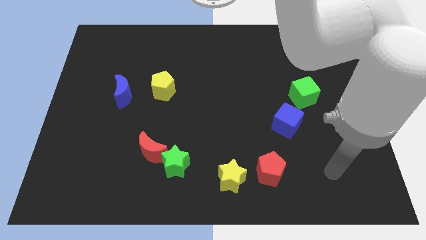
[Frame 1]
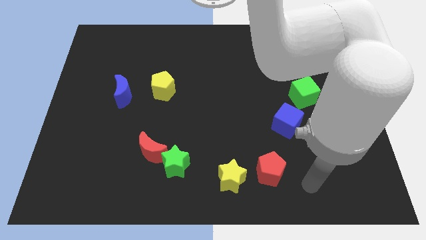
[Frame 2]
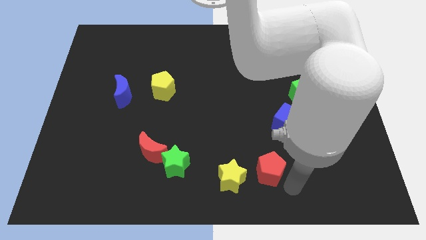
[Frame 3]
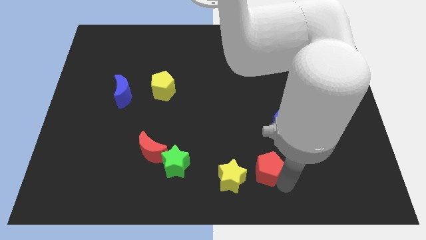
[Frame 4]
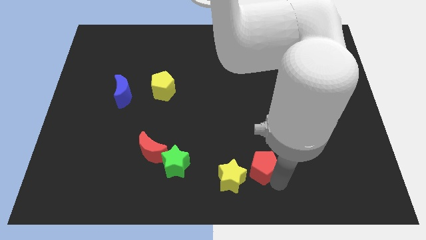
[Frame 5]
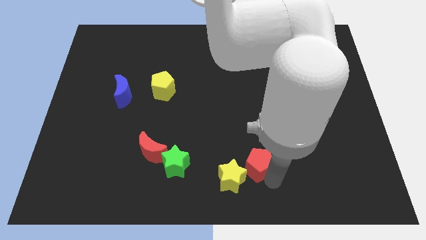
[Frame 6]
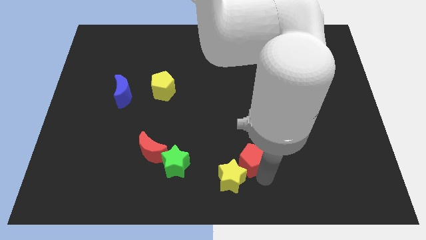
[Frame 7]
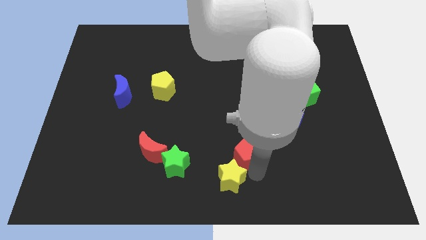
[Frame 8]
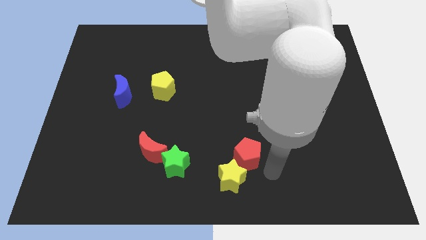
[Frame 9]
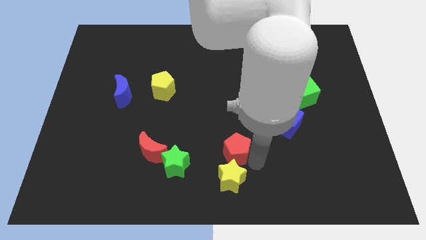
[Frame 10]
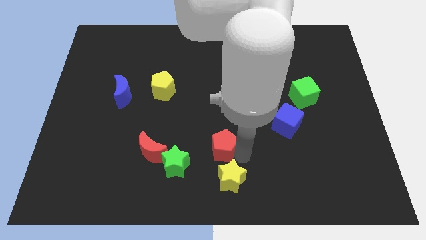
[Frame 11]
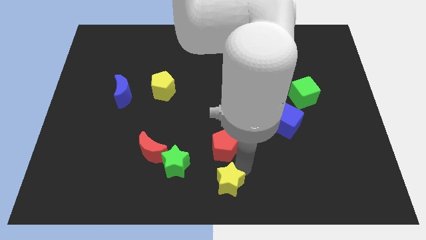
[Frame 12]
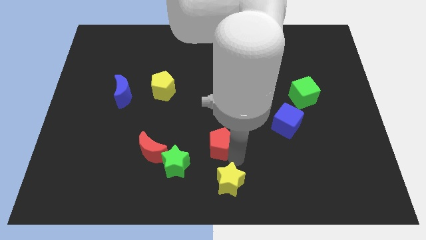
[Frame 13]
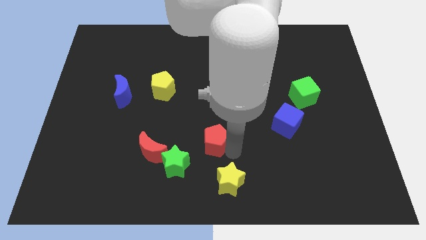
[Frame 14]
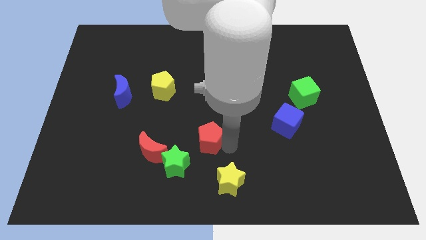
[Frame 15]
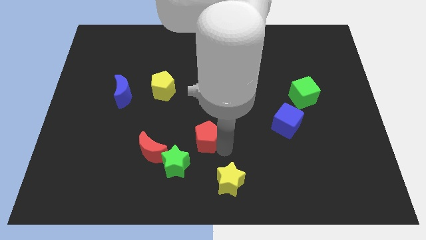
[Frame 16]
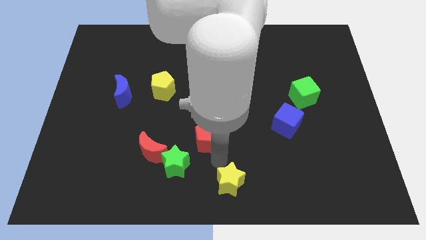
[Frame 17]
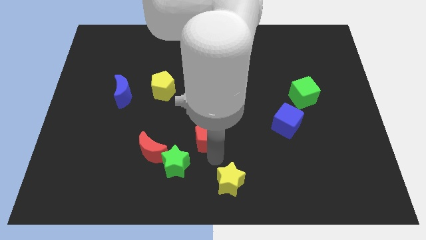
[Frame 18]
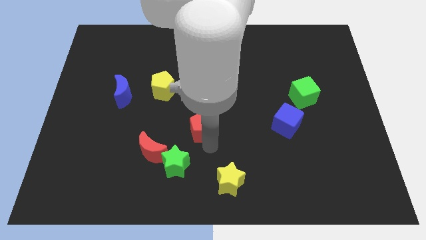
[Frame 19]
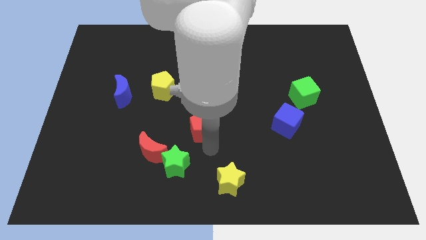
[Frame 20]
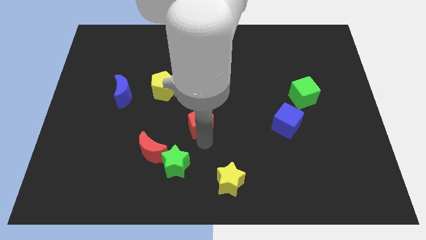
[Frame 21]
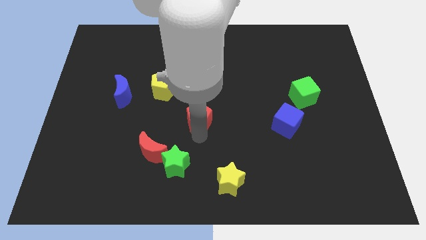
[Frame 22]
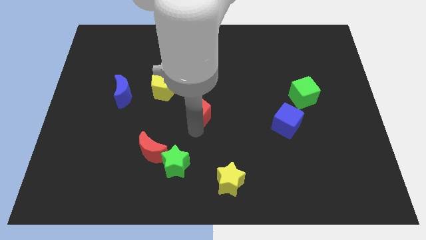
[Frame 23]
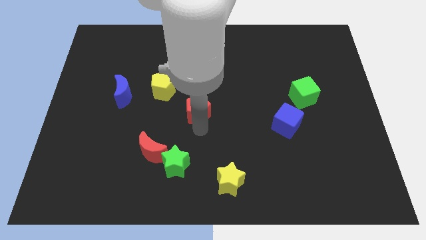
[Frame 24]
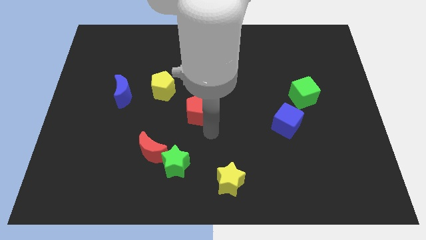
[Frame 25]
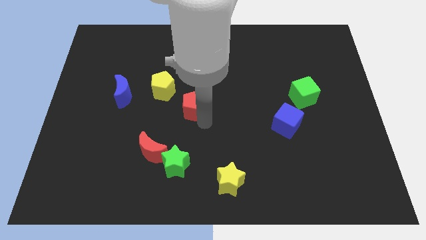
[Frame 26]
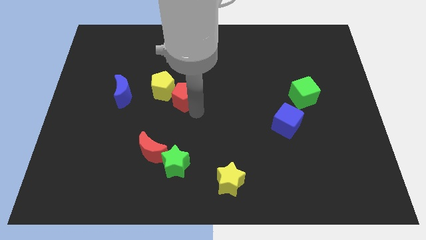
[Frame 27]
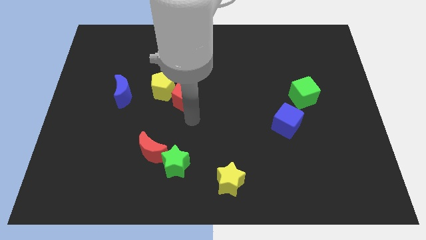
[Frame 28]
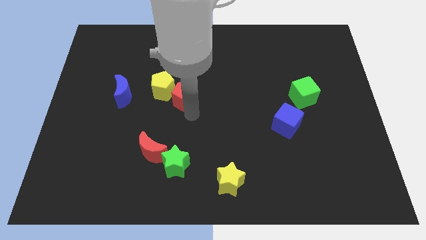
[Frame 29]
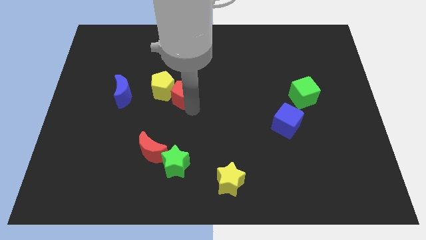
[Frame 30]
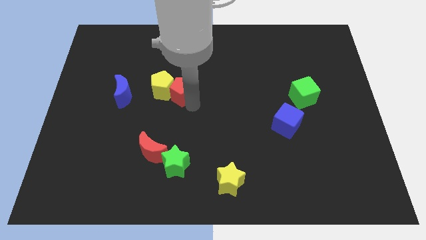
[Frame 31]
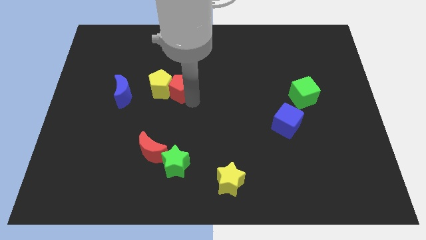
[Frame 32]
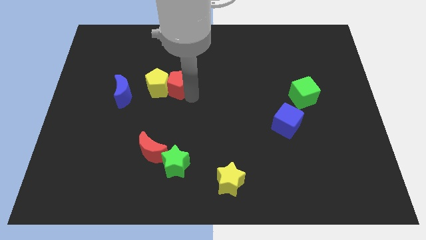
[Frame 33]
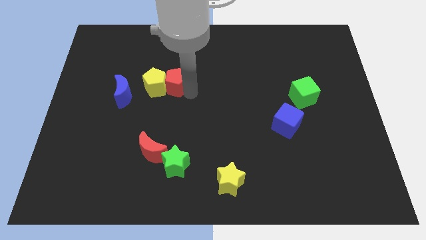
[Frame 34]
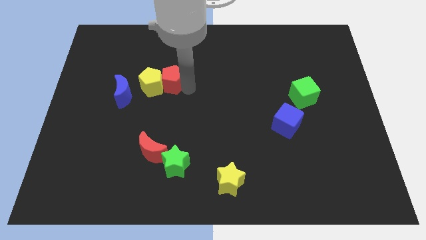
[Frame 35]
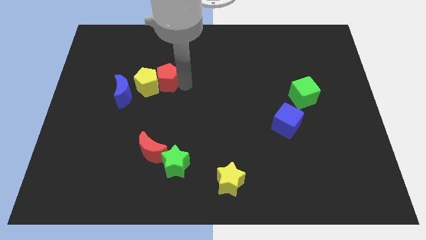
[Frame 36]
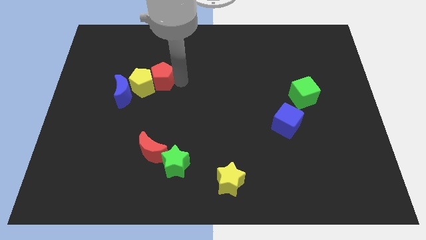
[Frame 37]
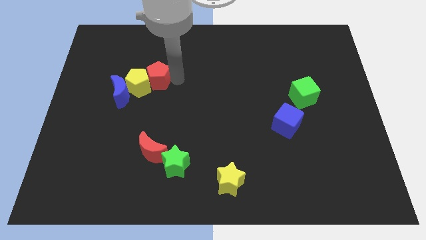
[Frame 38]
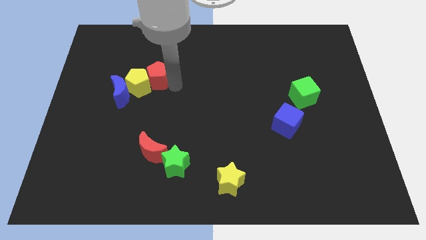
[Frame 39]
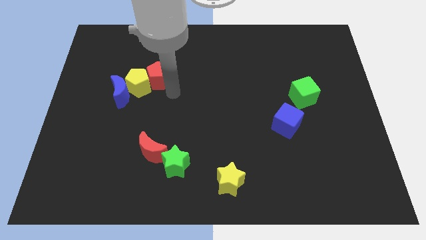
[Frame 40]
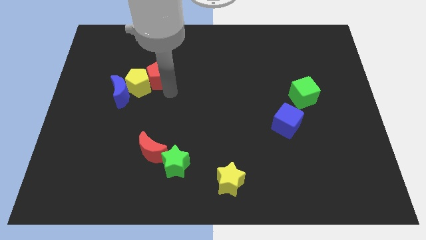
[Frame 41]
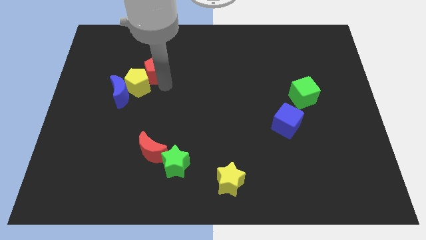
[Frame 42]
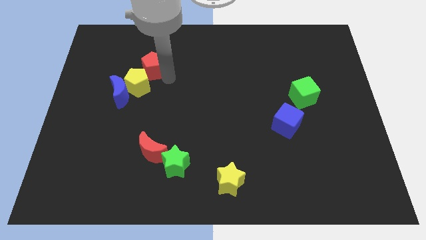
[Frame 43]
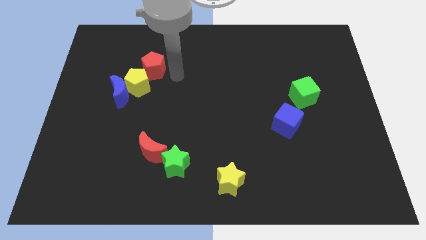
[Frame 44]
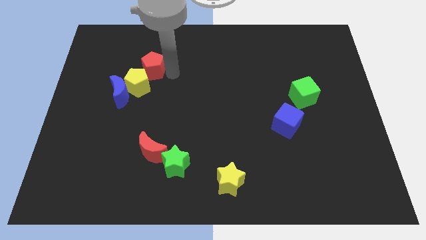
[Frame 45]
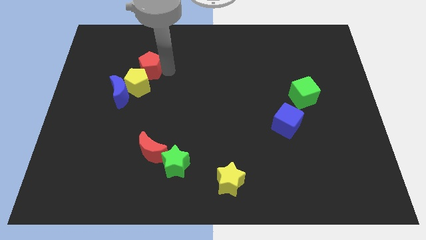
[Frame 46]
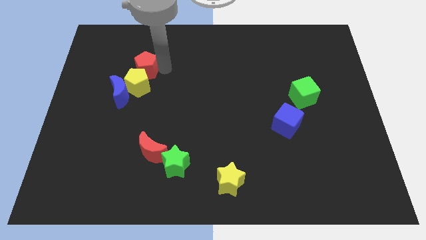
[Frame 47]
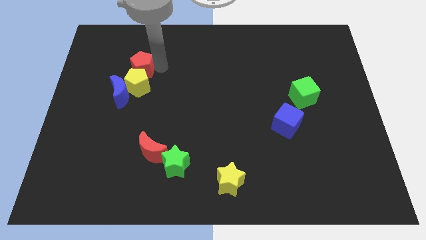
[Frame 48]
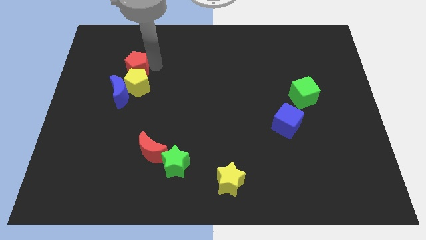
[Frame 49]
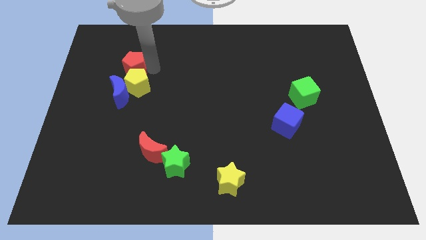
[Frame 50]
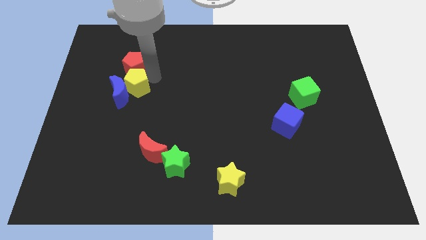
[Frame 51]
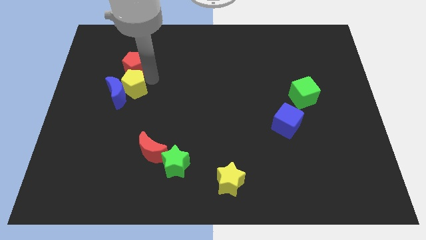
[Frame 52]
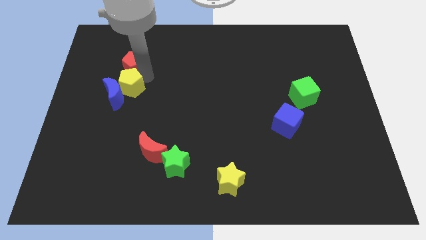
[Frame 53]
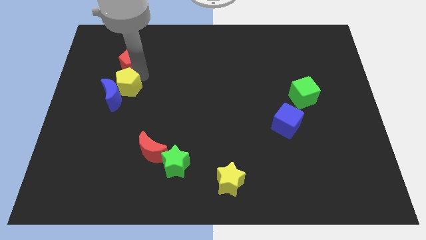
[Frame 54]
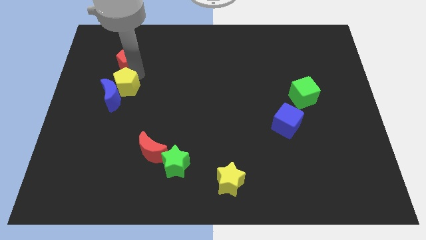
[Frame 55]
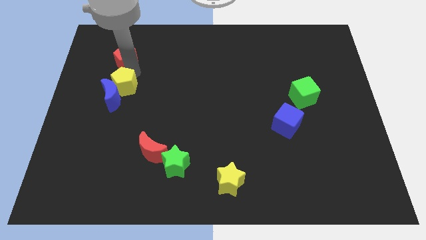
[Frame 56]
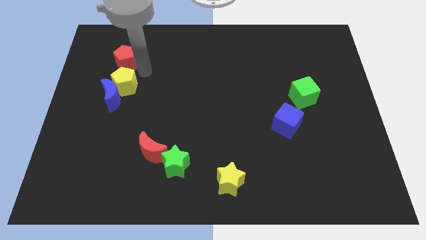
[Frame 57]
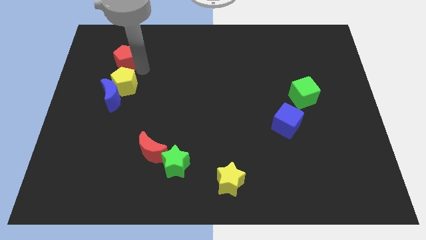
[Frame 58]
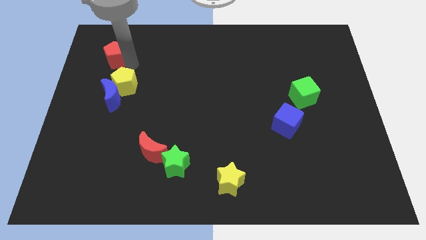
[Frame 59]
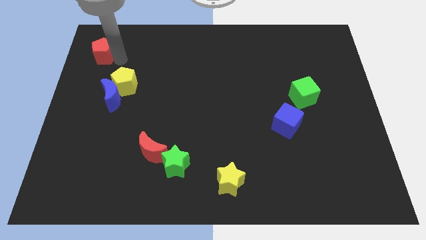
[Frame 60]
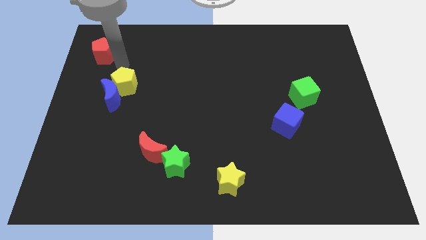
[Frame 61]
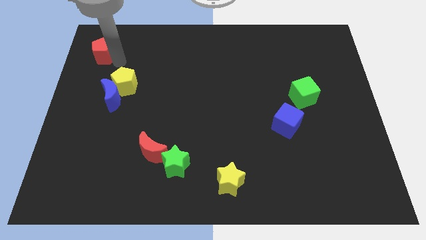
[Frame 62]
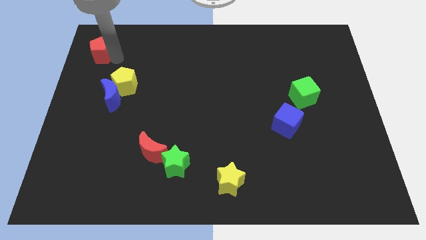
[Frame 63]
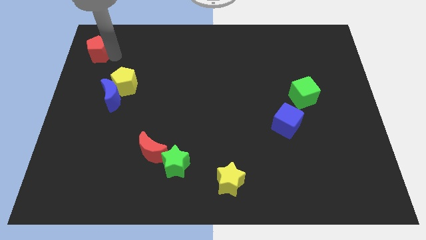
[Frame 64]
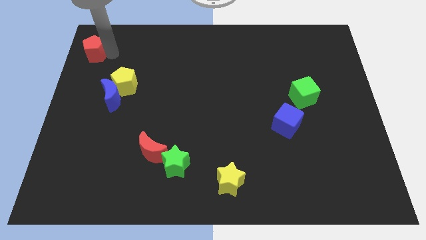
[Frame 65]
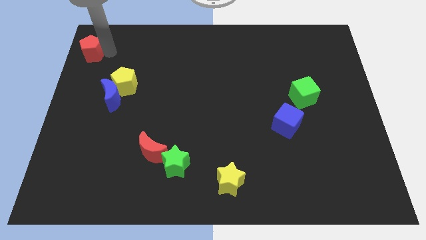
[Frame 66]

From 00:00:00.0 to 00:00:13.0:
push the red pentagon to the top left corner

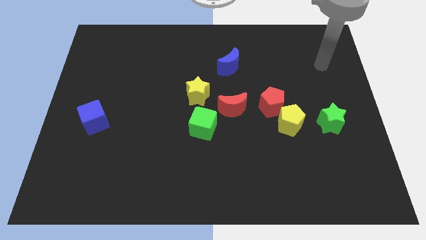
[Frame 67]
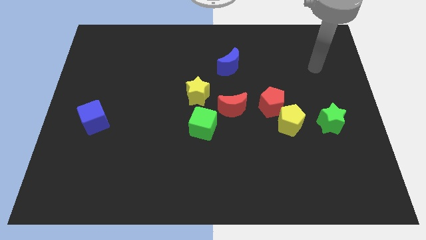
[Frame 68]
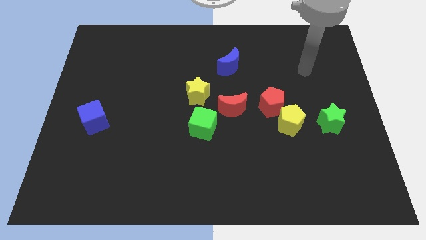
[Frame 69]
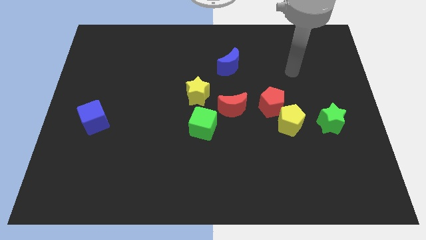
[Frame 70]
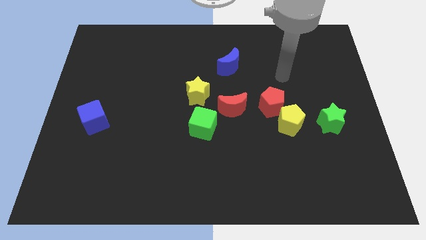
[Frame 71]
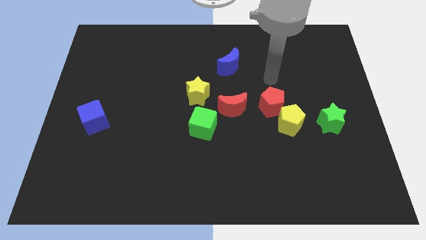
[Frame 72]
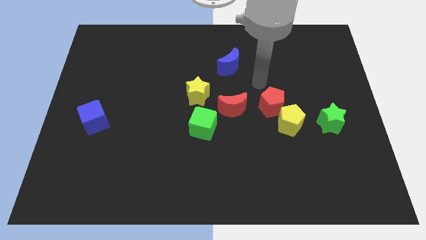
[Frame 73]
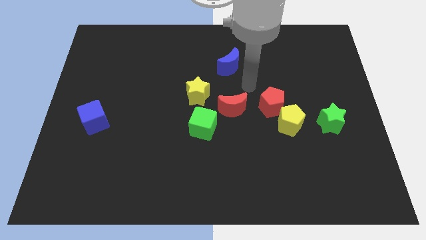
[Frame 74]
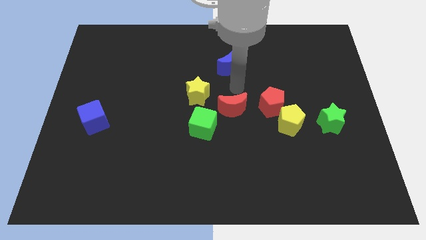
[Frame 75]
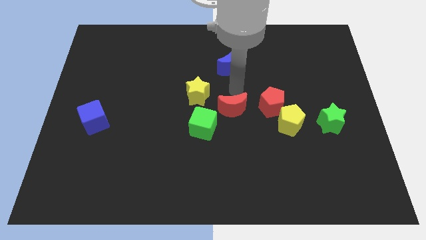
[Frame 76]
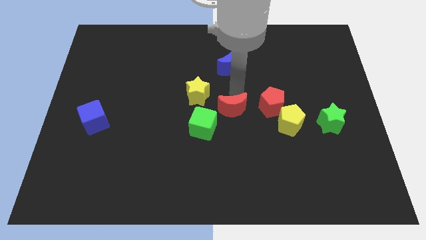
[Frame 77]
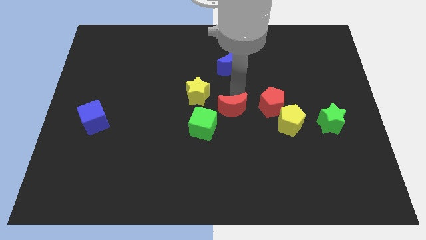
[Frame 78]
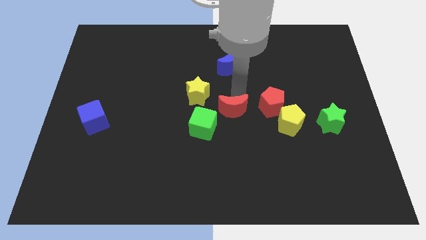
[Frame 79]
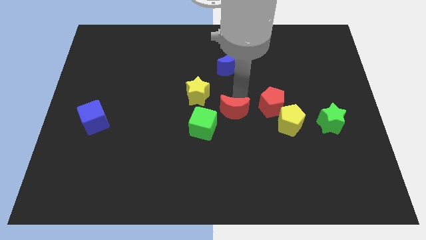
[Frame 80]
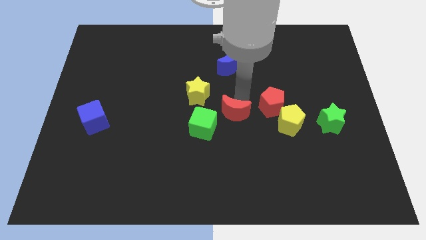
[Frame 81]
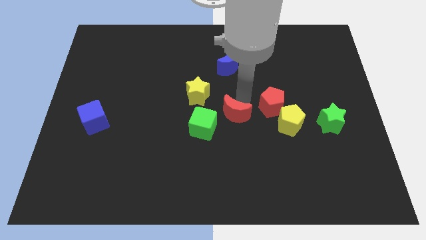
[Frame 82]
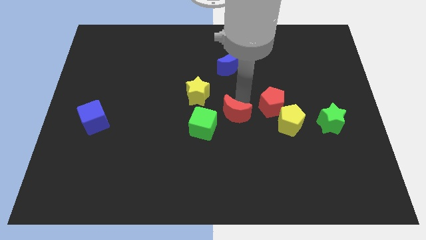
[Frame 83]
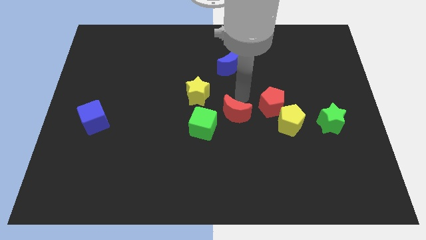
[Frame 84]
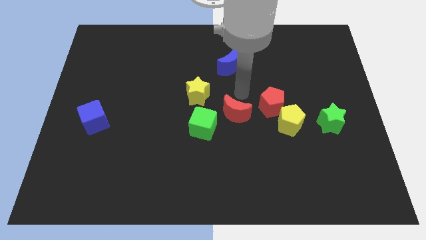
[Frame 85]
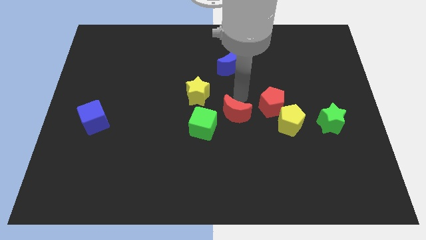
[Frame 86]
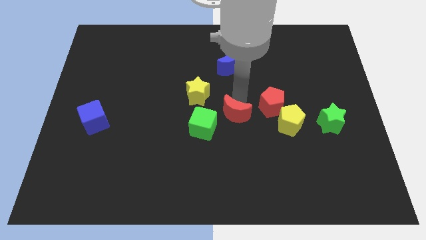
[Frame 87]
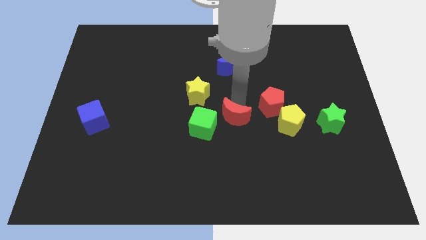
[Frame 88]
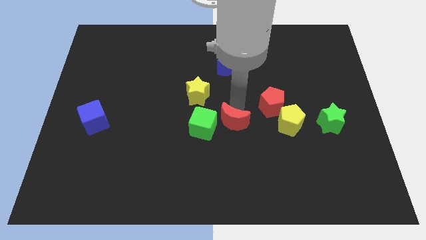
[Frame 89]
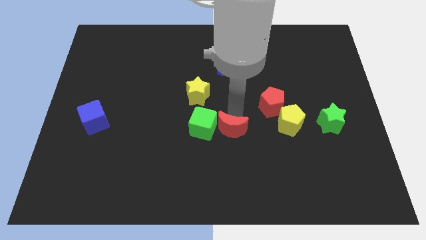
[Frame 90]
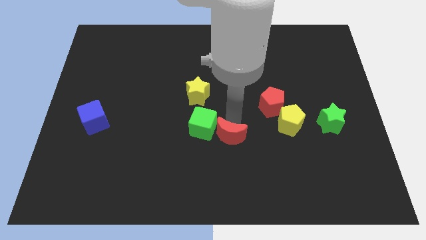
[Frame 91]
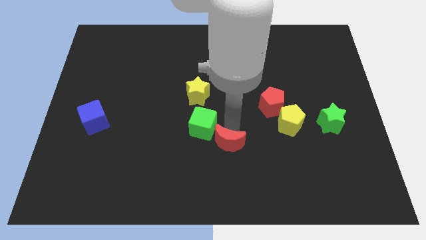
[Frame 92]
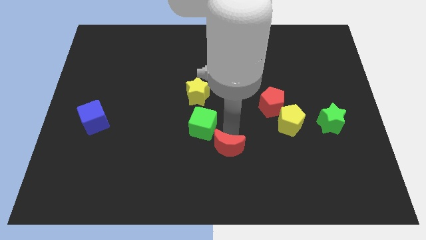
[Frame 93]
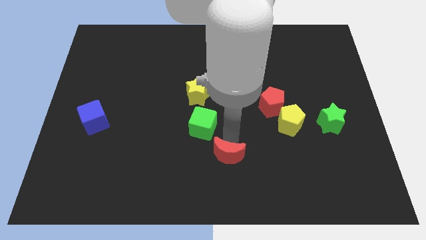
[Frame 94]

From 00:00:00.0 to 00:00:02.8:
slide the red moon to the bottom side
